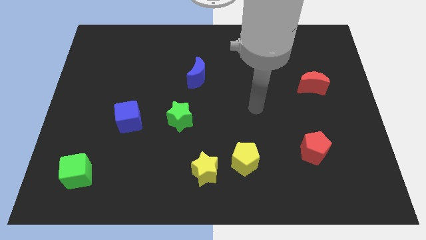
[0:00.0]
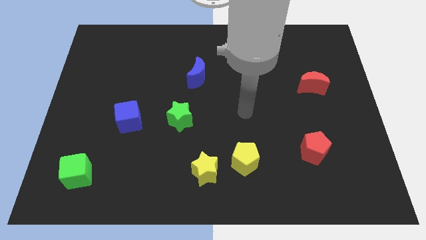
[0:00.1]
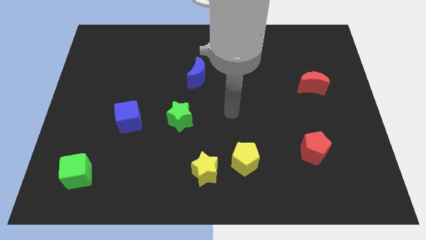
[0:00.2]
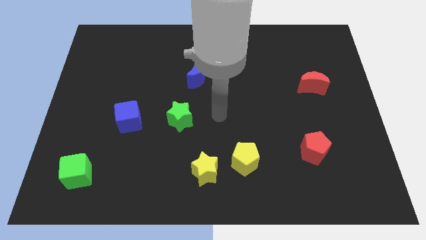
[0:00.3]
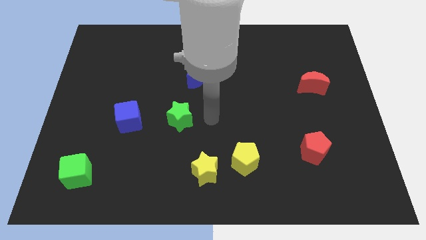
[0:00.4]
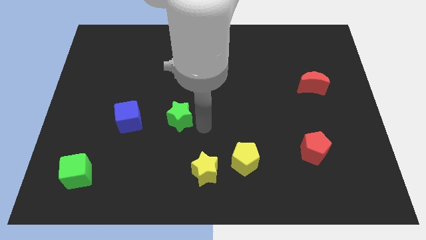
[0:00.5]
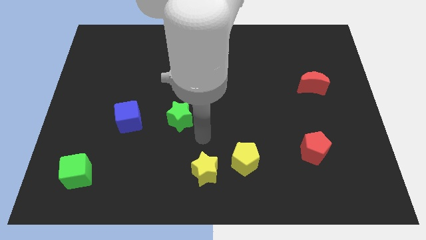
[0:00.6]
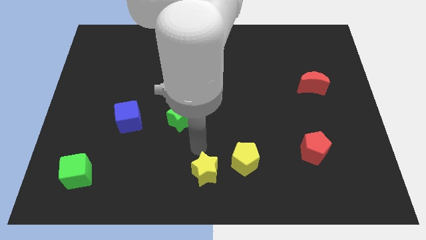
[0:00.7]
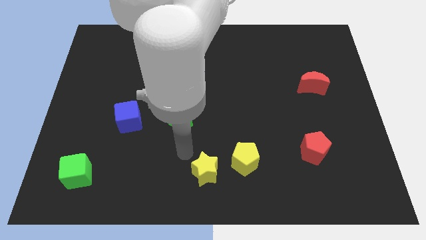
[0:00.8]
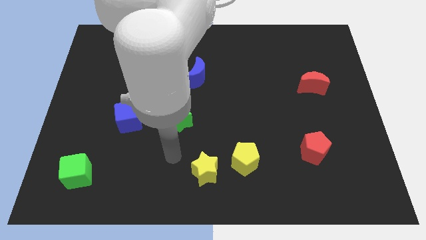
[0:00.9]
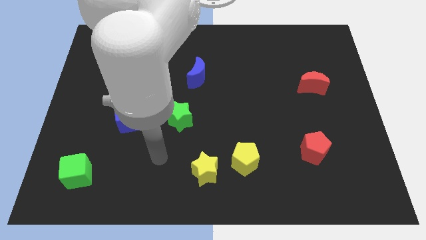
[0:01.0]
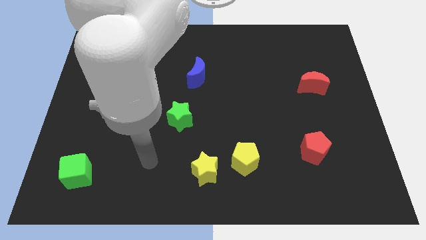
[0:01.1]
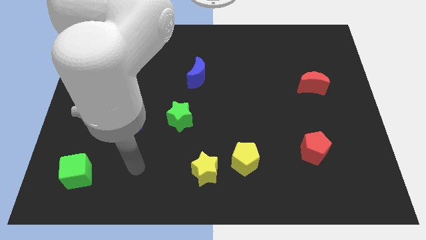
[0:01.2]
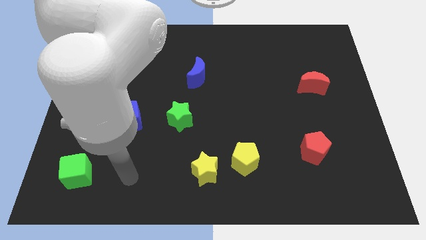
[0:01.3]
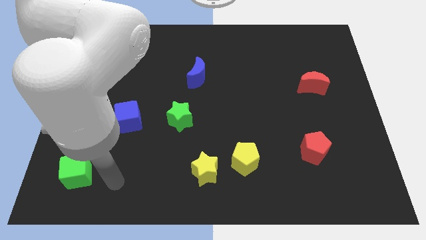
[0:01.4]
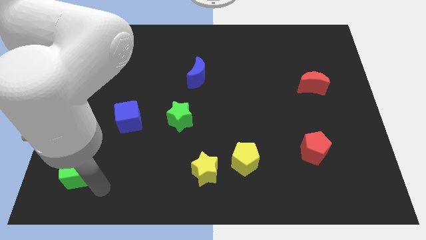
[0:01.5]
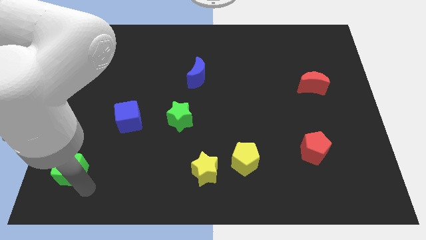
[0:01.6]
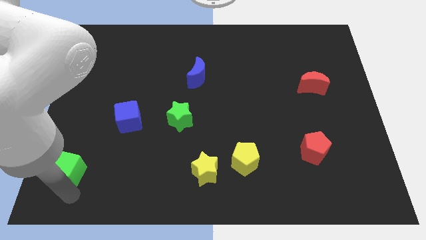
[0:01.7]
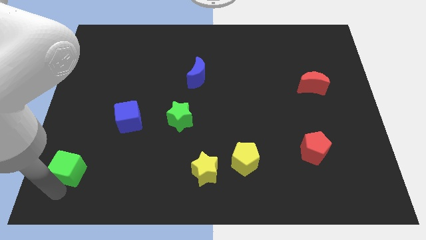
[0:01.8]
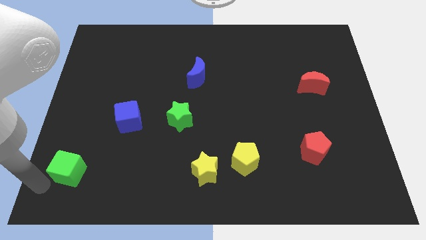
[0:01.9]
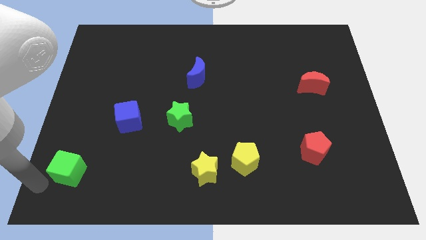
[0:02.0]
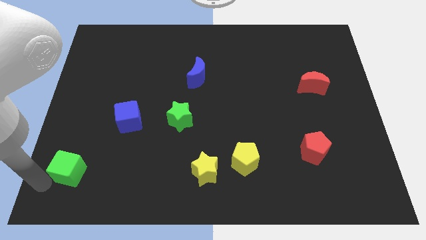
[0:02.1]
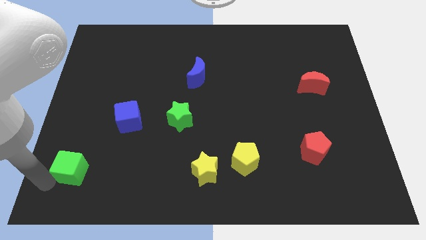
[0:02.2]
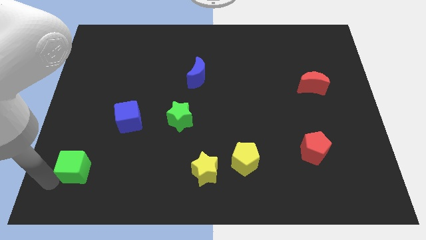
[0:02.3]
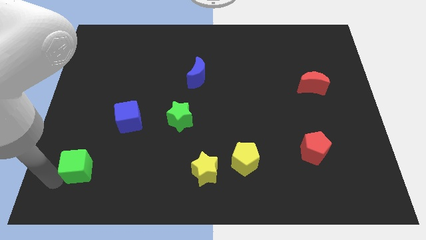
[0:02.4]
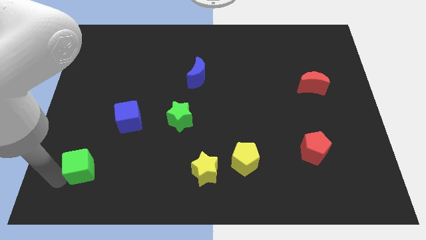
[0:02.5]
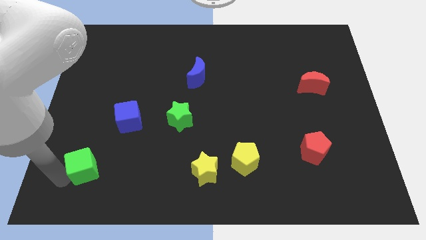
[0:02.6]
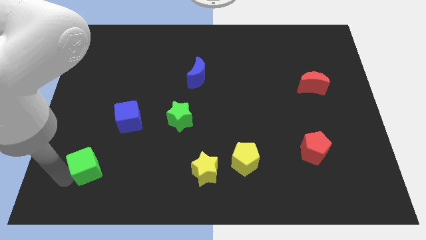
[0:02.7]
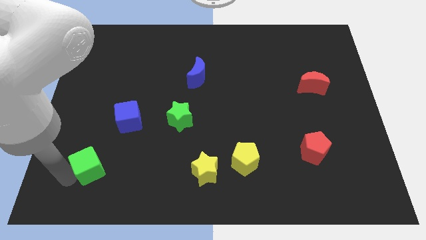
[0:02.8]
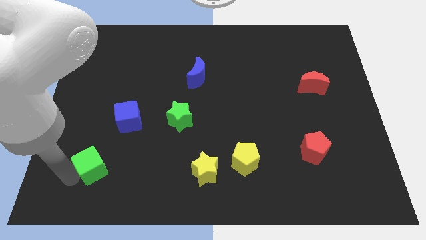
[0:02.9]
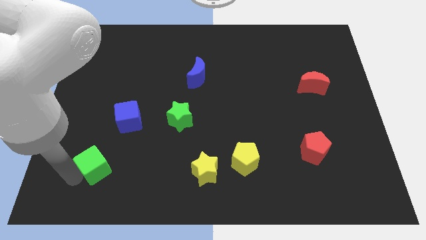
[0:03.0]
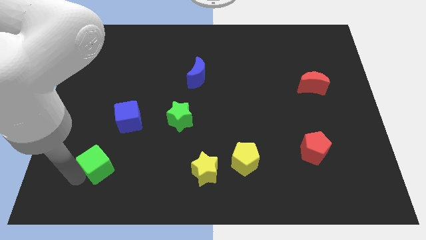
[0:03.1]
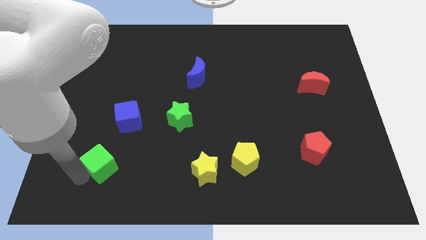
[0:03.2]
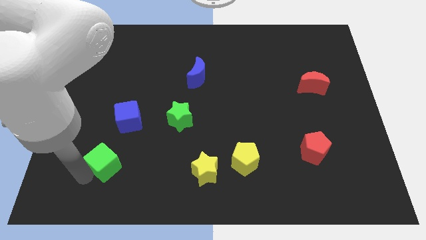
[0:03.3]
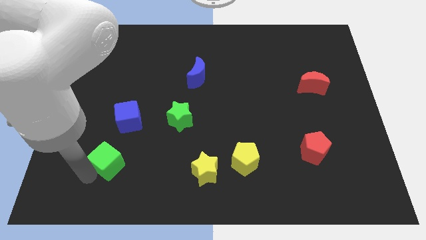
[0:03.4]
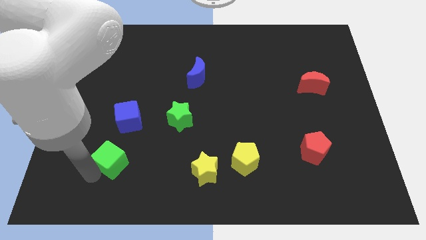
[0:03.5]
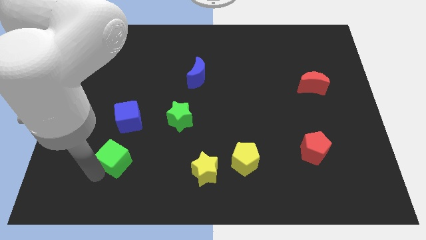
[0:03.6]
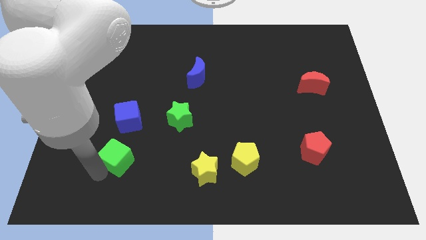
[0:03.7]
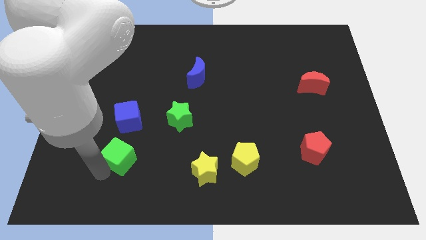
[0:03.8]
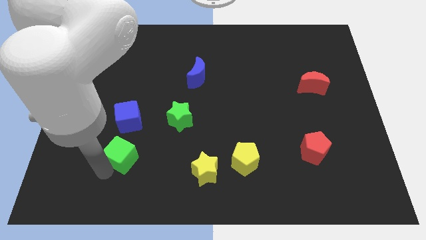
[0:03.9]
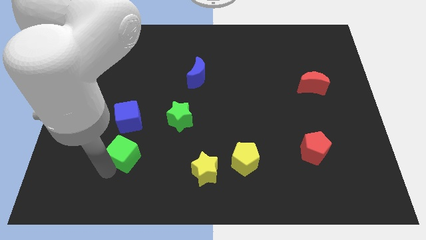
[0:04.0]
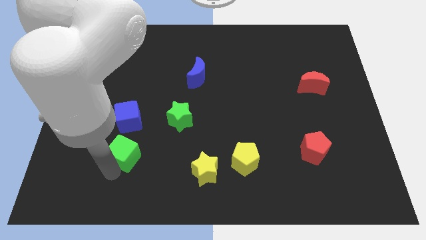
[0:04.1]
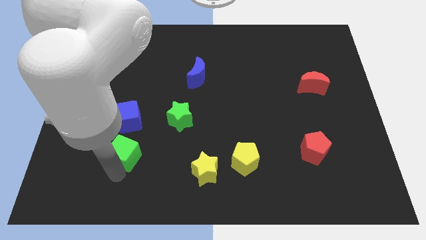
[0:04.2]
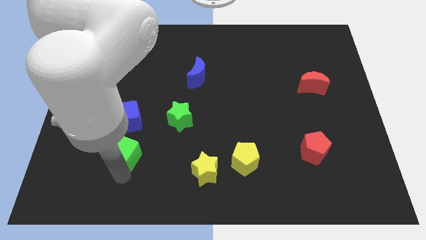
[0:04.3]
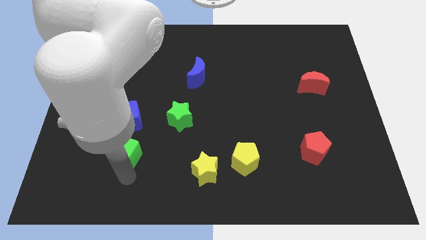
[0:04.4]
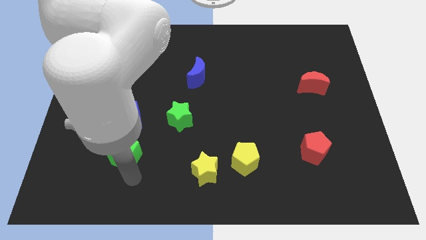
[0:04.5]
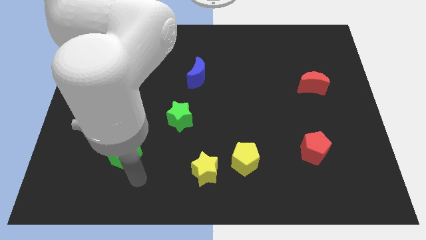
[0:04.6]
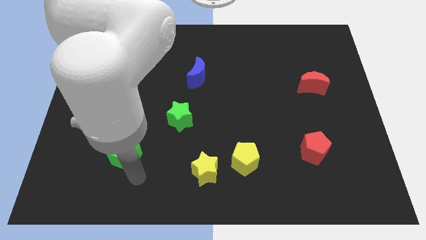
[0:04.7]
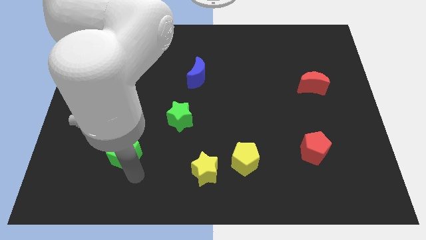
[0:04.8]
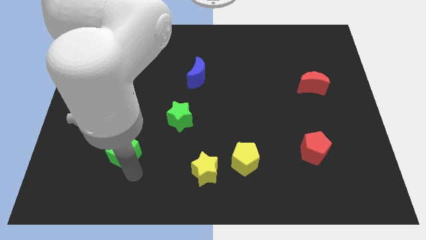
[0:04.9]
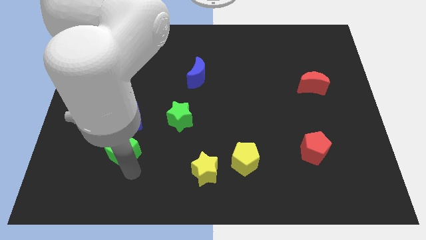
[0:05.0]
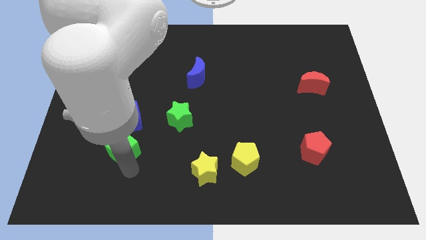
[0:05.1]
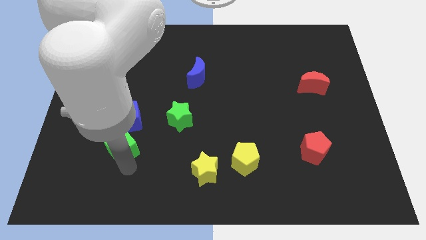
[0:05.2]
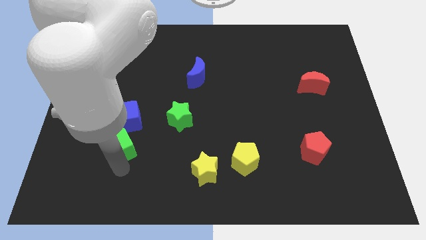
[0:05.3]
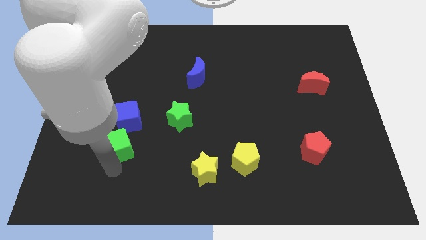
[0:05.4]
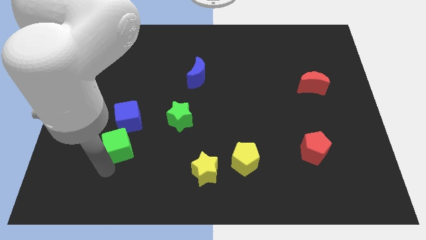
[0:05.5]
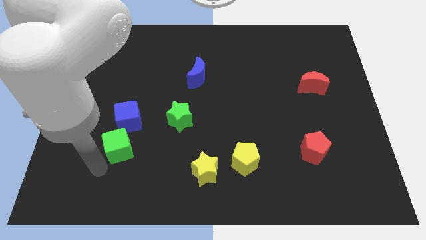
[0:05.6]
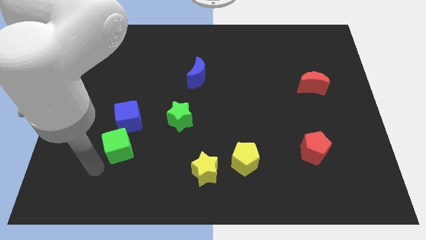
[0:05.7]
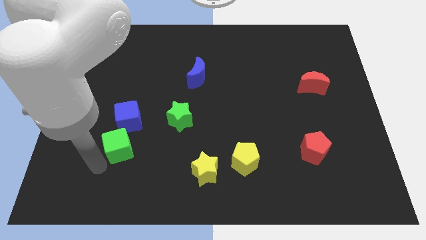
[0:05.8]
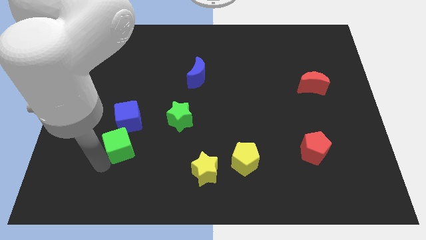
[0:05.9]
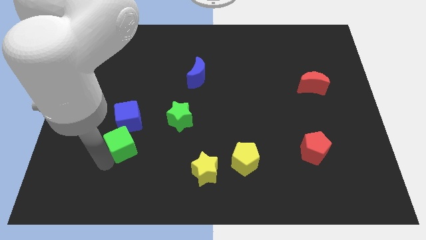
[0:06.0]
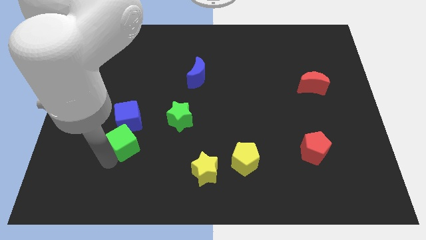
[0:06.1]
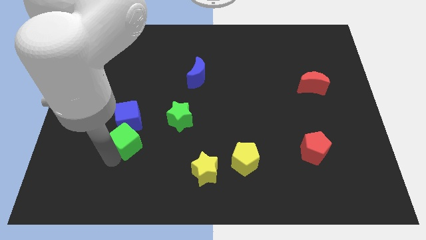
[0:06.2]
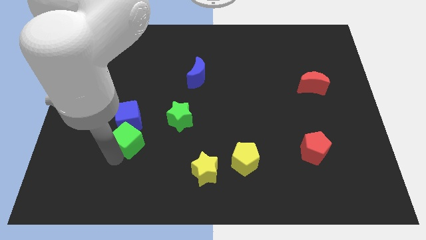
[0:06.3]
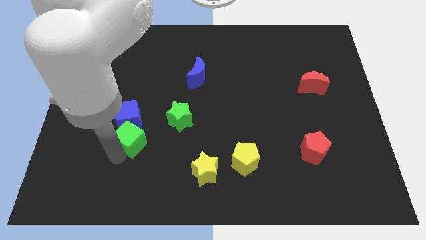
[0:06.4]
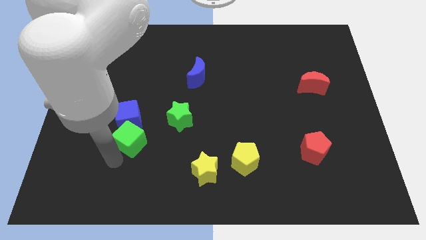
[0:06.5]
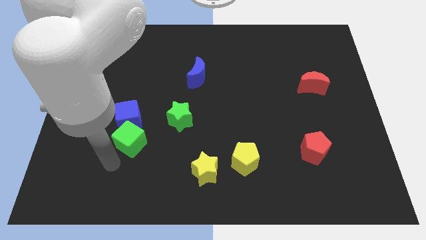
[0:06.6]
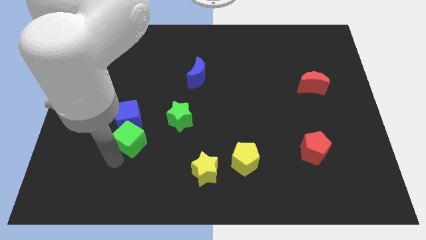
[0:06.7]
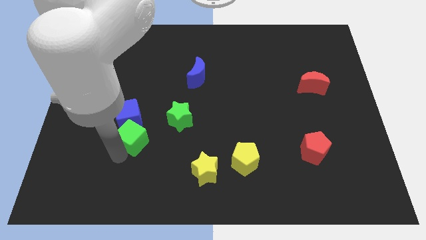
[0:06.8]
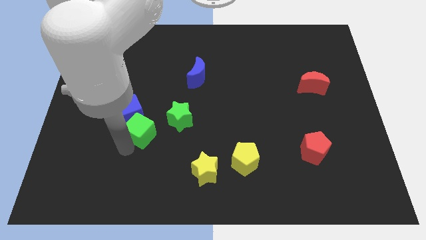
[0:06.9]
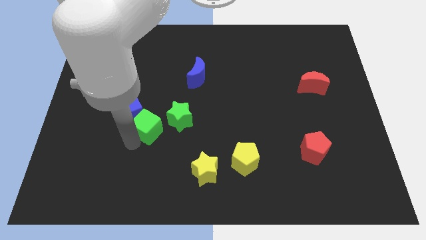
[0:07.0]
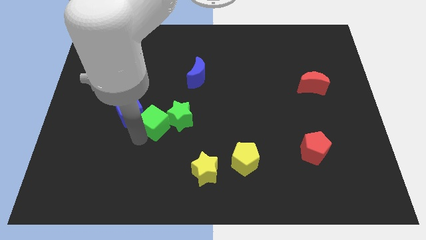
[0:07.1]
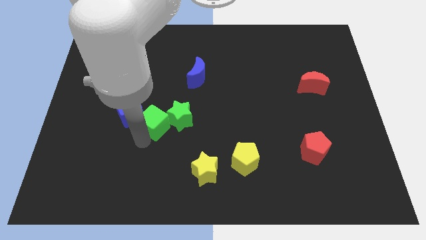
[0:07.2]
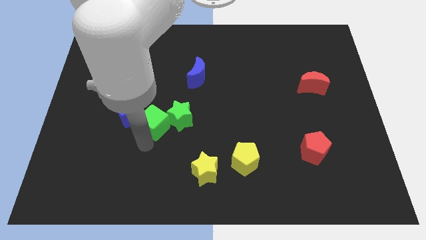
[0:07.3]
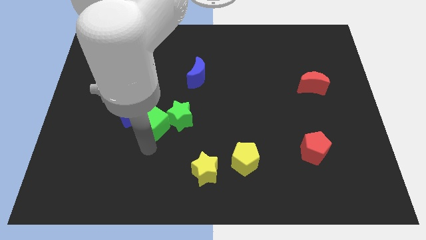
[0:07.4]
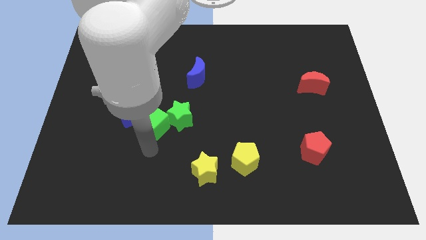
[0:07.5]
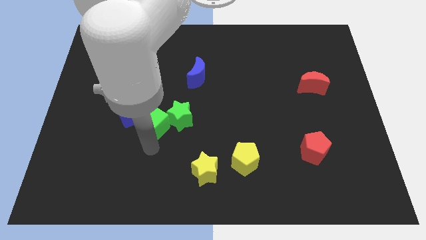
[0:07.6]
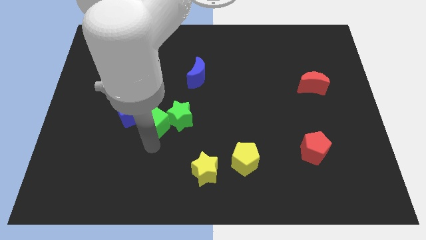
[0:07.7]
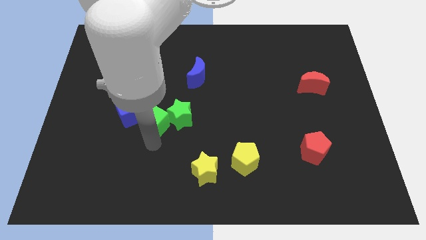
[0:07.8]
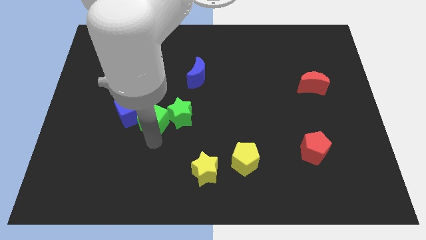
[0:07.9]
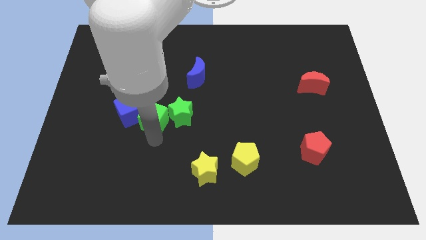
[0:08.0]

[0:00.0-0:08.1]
slide the green cube up and to the right

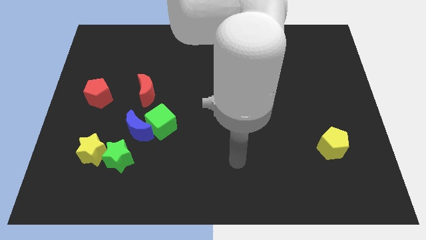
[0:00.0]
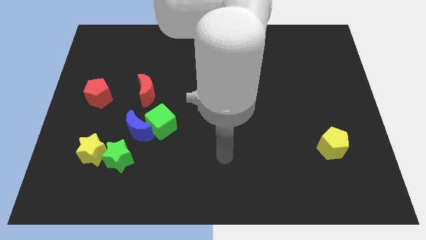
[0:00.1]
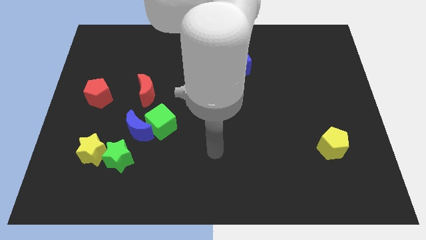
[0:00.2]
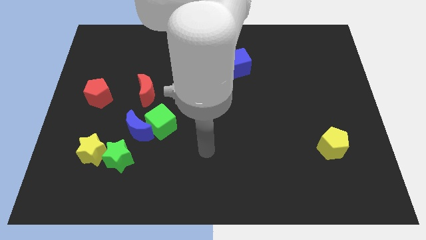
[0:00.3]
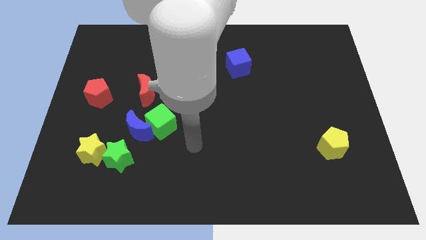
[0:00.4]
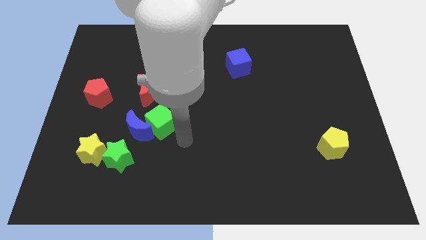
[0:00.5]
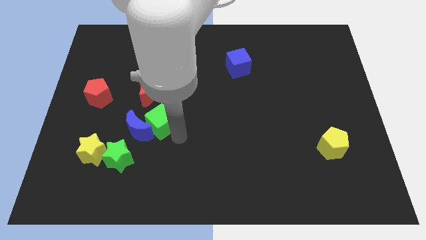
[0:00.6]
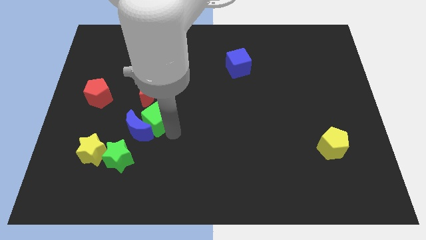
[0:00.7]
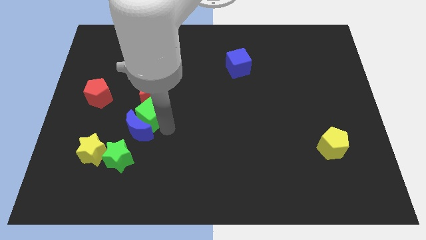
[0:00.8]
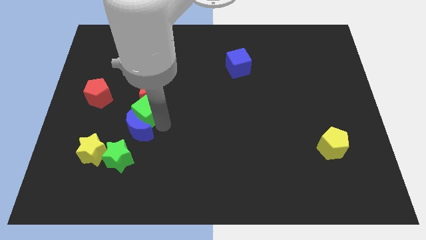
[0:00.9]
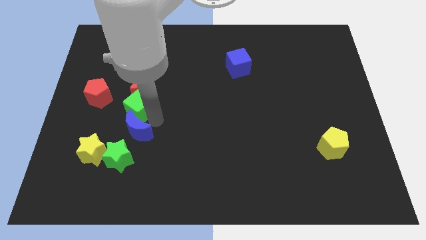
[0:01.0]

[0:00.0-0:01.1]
slightly move the green cube upwards and left
